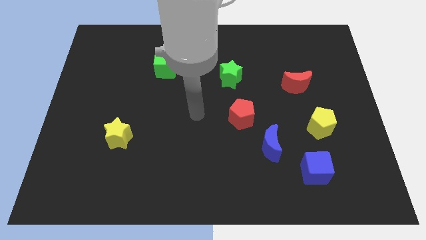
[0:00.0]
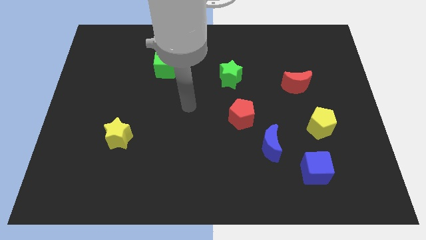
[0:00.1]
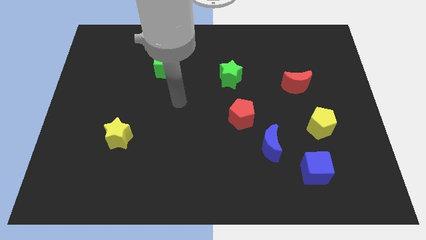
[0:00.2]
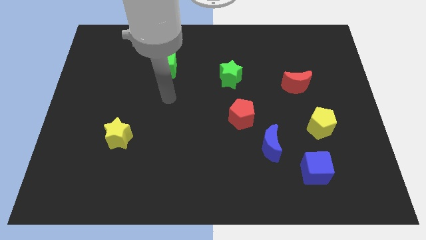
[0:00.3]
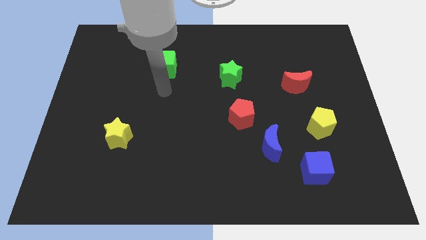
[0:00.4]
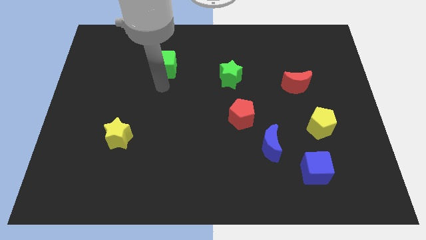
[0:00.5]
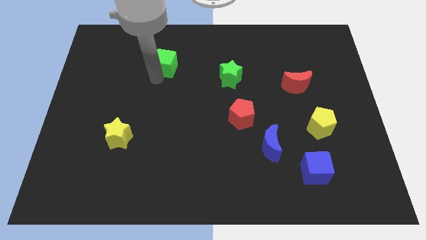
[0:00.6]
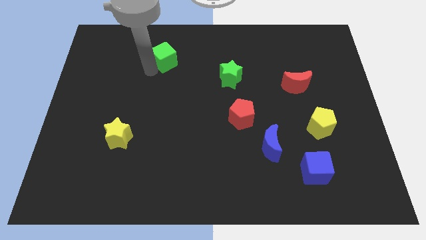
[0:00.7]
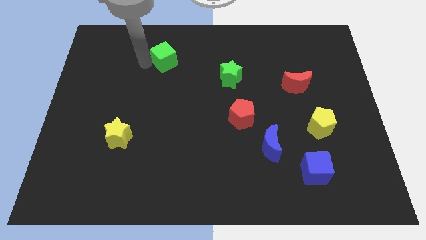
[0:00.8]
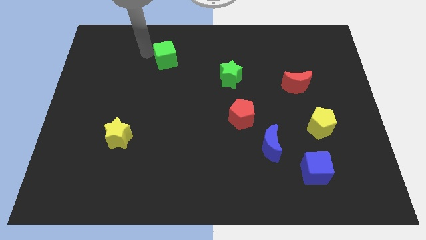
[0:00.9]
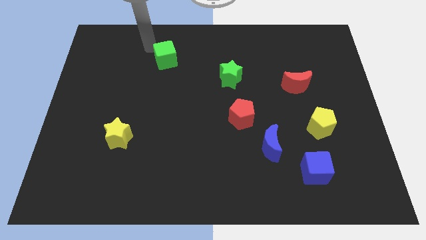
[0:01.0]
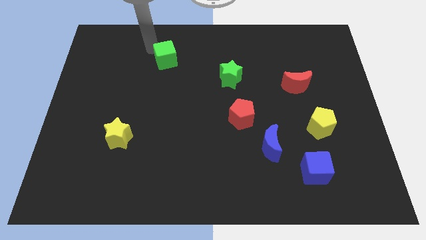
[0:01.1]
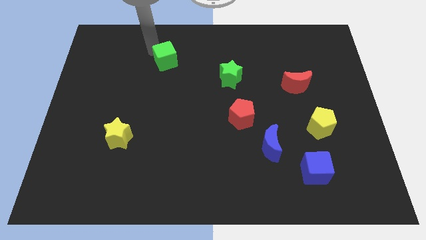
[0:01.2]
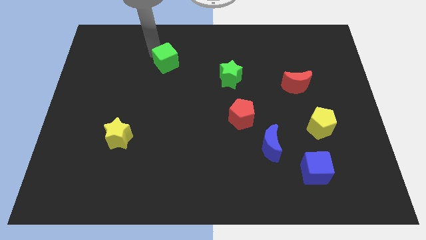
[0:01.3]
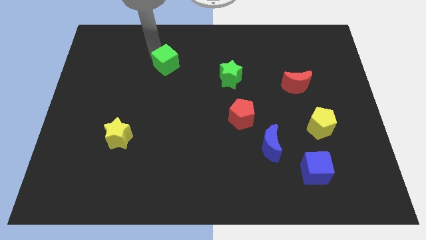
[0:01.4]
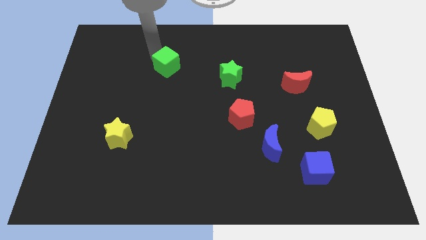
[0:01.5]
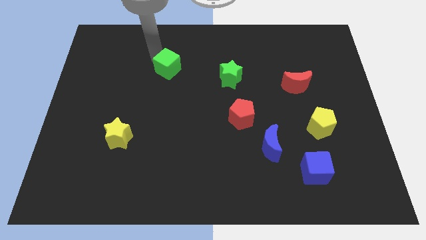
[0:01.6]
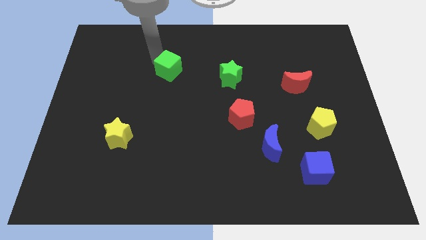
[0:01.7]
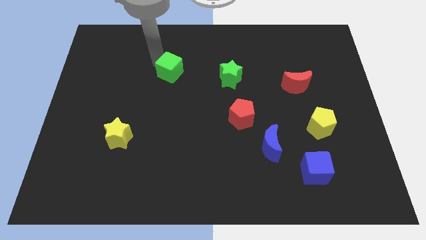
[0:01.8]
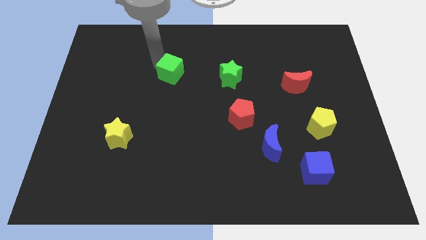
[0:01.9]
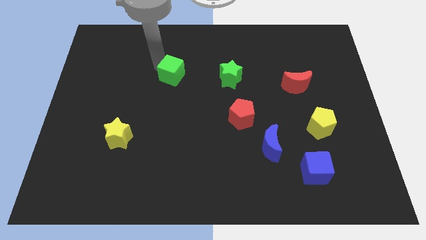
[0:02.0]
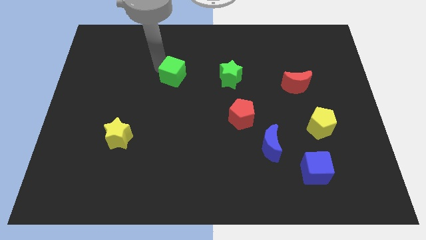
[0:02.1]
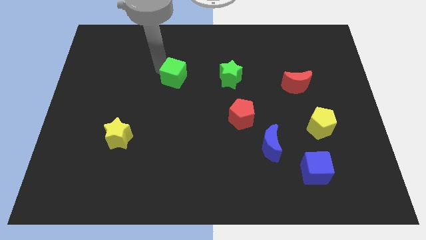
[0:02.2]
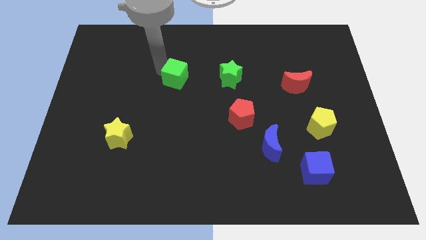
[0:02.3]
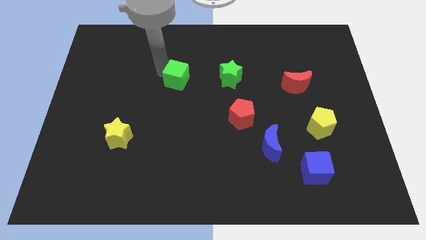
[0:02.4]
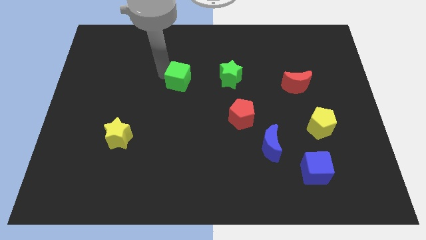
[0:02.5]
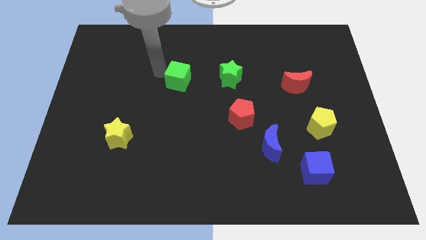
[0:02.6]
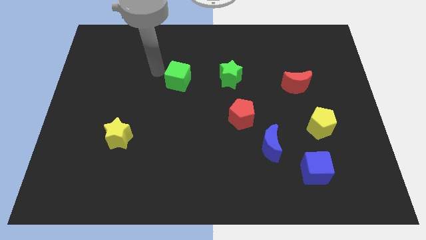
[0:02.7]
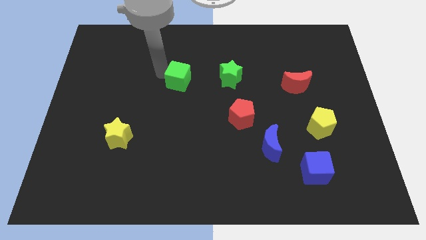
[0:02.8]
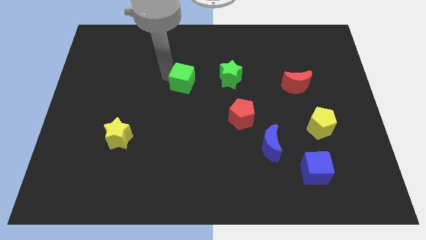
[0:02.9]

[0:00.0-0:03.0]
push the green cube downwards and right a little

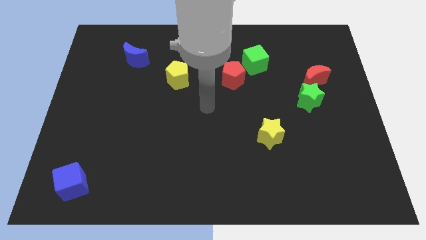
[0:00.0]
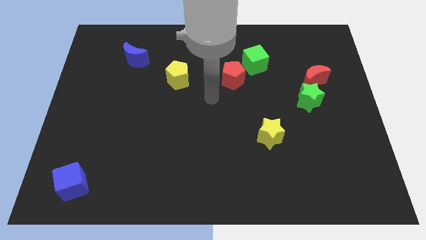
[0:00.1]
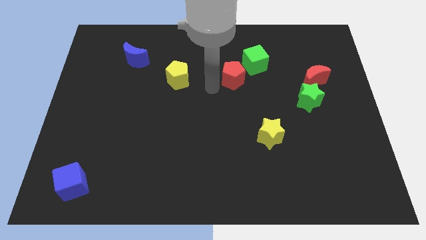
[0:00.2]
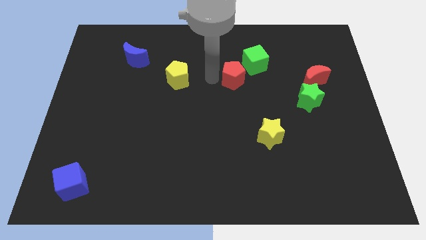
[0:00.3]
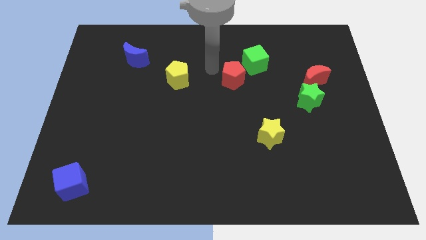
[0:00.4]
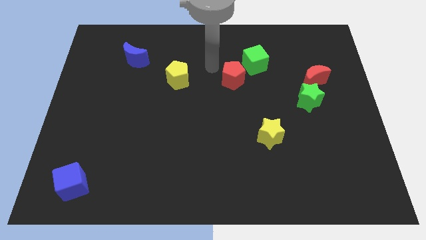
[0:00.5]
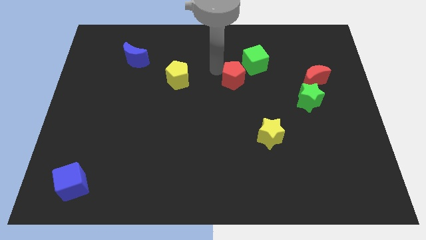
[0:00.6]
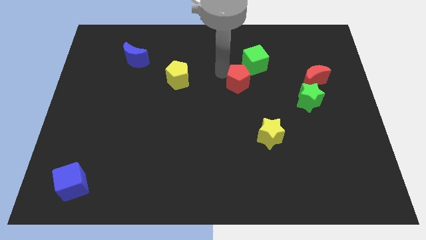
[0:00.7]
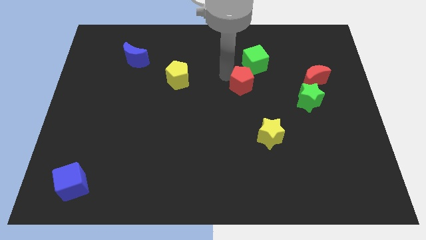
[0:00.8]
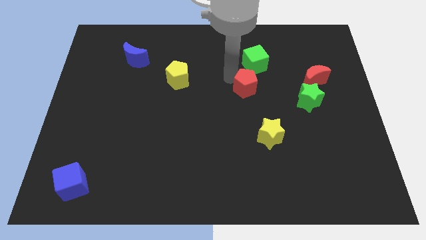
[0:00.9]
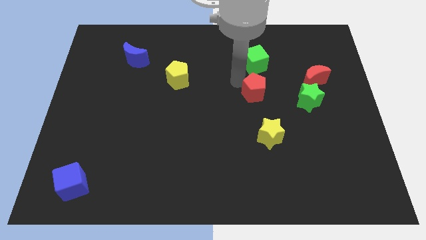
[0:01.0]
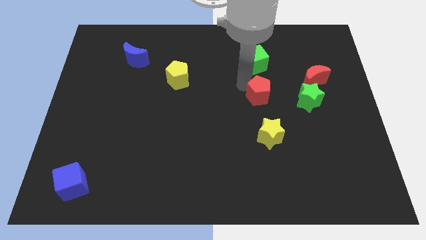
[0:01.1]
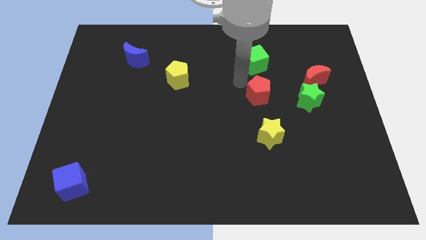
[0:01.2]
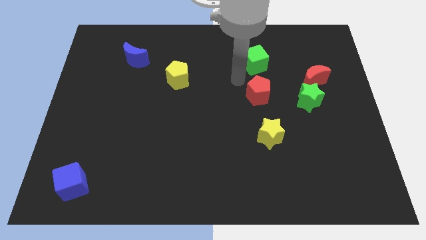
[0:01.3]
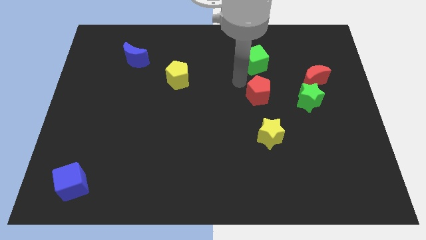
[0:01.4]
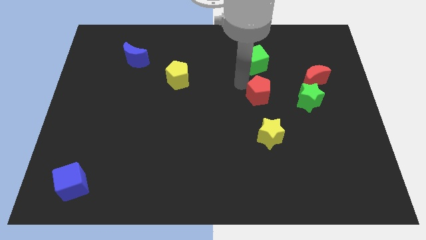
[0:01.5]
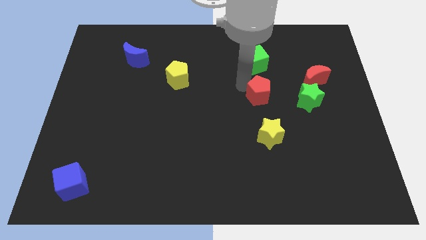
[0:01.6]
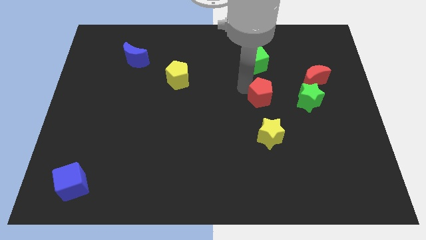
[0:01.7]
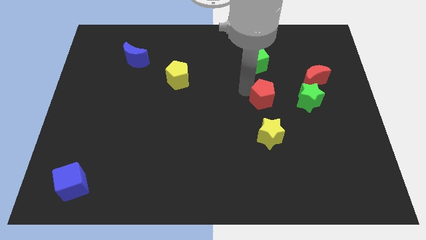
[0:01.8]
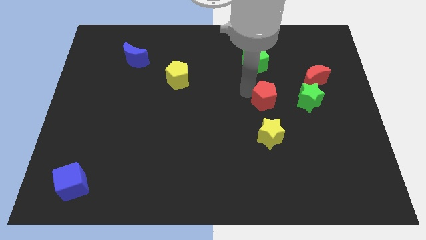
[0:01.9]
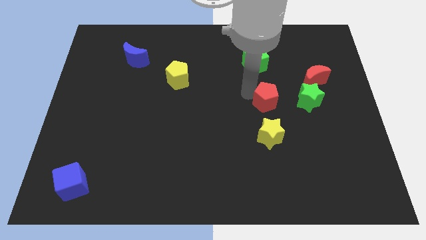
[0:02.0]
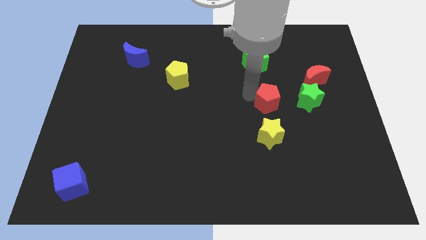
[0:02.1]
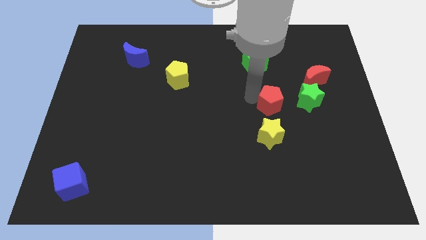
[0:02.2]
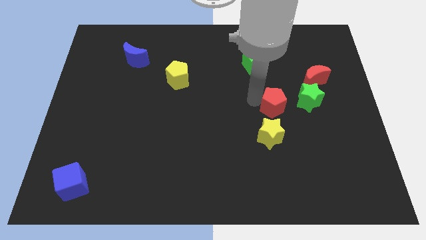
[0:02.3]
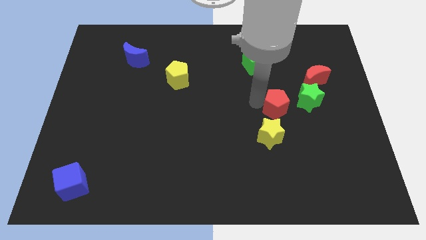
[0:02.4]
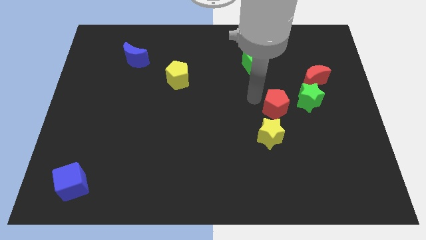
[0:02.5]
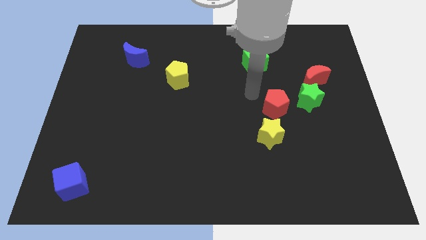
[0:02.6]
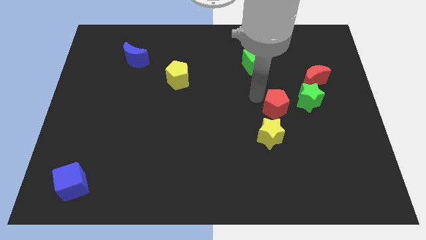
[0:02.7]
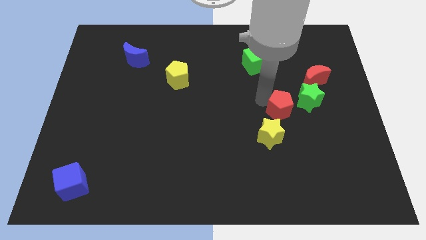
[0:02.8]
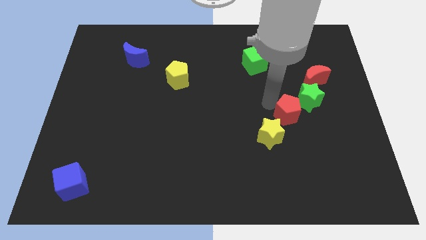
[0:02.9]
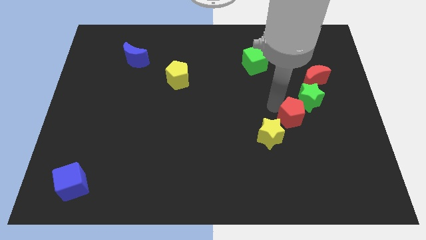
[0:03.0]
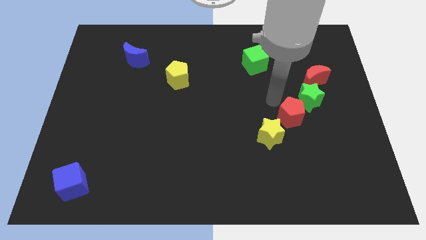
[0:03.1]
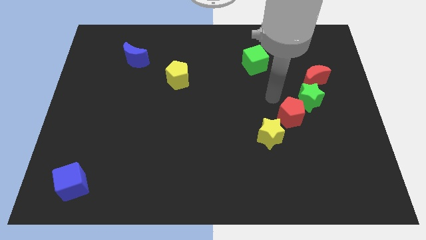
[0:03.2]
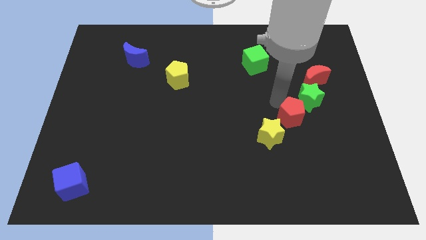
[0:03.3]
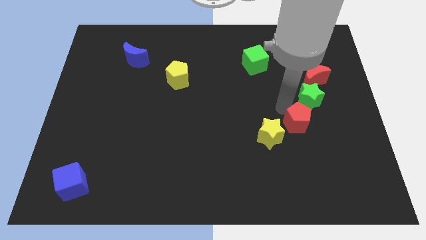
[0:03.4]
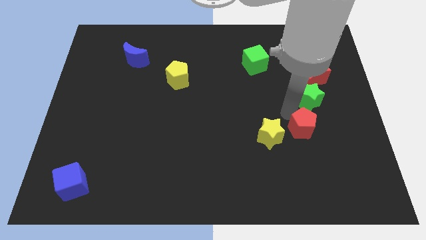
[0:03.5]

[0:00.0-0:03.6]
push the red pentagon down and right

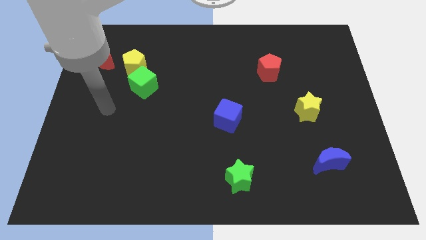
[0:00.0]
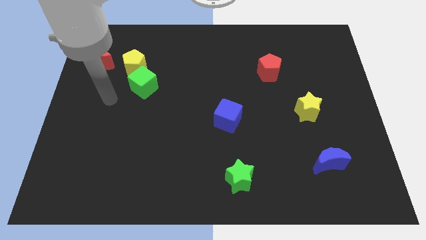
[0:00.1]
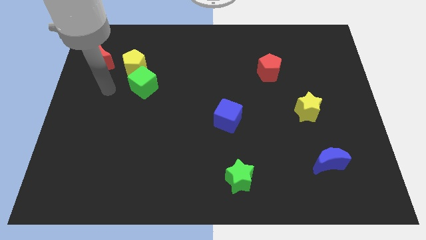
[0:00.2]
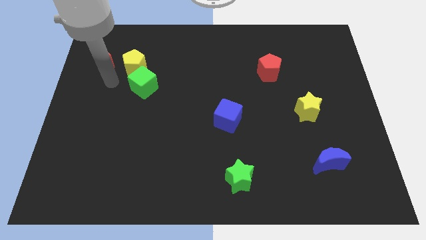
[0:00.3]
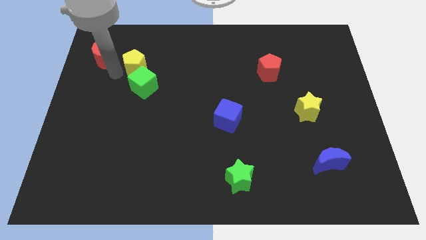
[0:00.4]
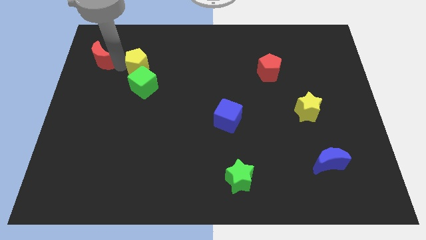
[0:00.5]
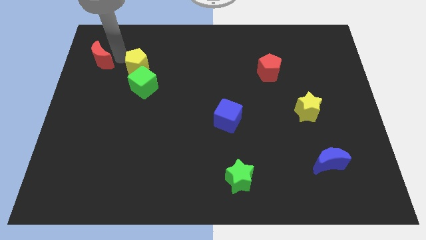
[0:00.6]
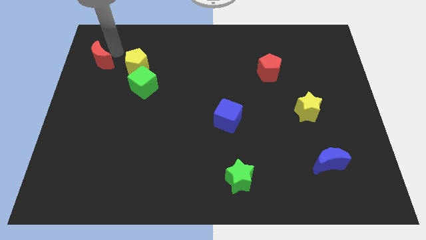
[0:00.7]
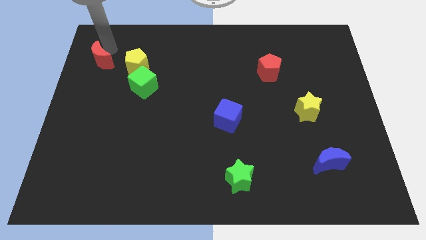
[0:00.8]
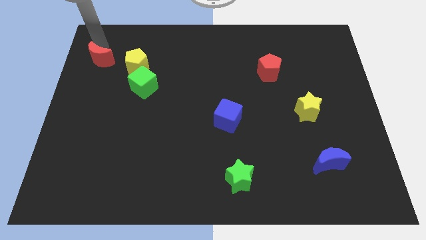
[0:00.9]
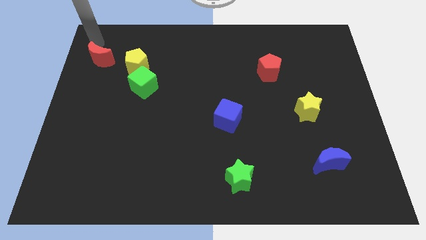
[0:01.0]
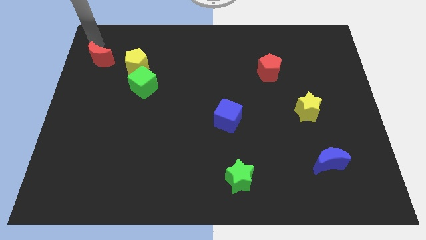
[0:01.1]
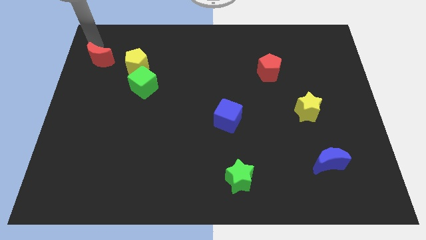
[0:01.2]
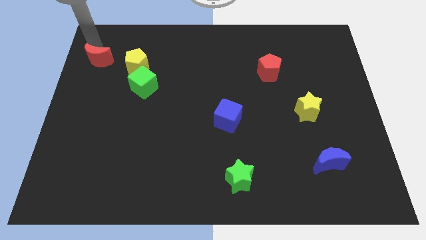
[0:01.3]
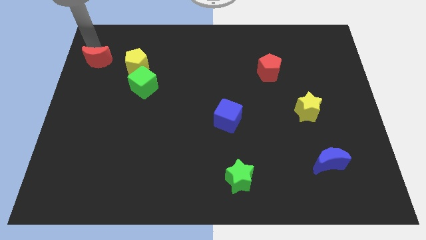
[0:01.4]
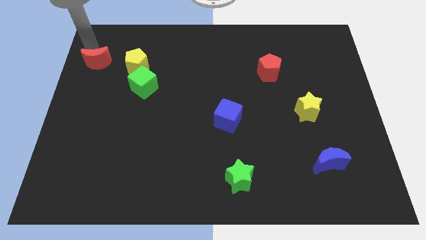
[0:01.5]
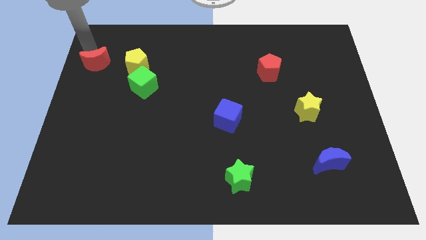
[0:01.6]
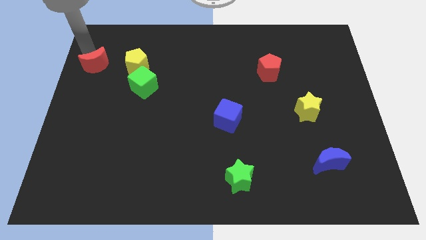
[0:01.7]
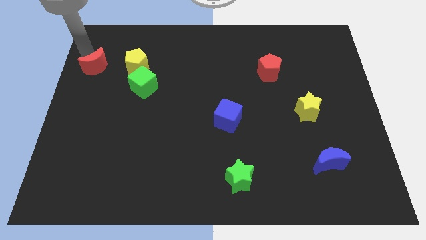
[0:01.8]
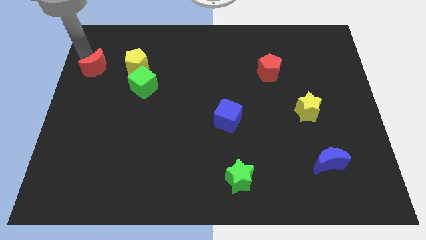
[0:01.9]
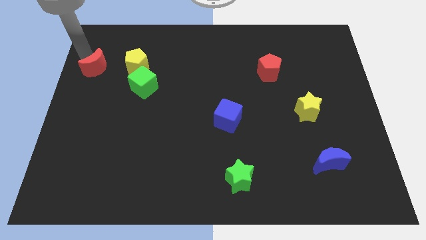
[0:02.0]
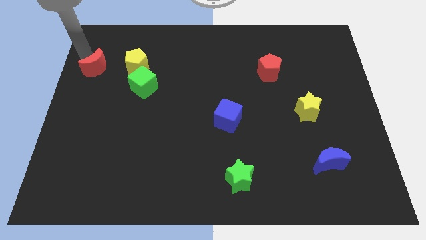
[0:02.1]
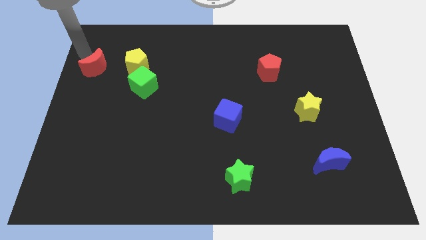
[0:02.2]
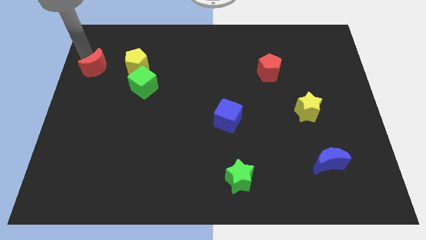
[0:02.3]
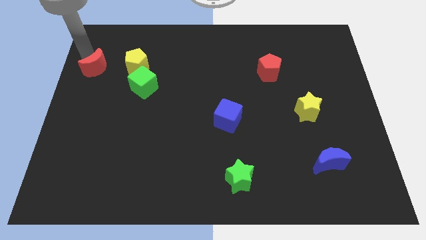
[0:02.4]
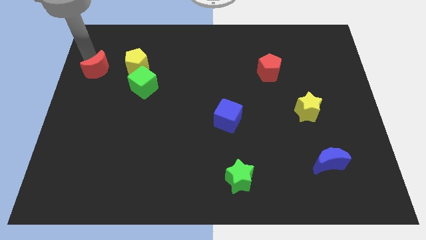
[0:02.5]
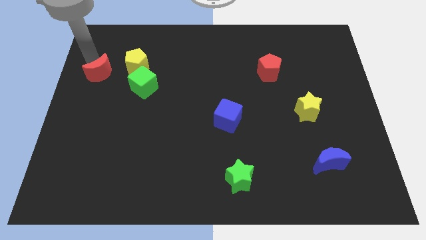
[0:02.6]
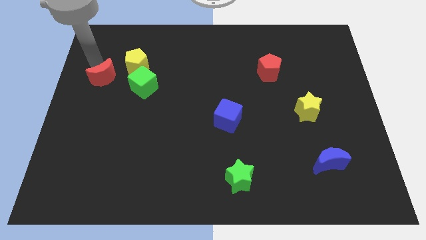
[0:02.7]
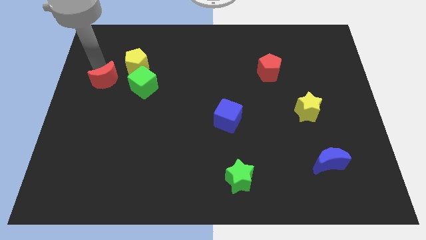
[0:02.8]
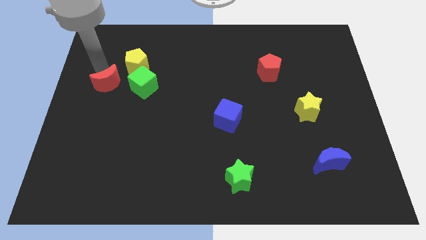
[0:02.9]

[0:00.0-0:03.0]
move the red moon down and right diagonally slightly
